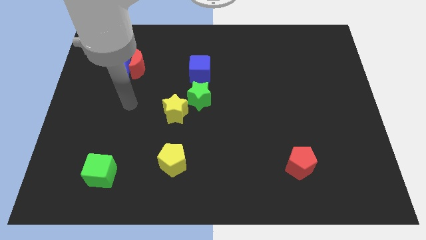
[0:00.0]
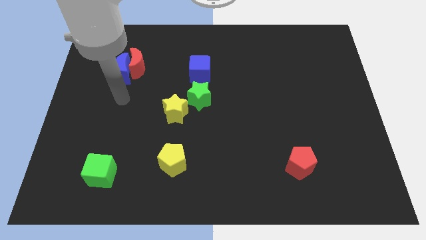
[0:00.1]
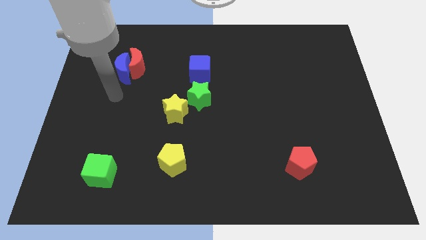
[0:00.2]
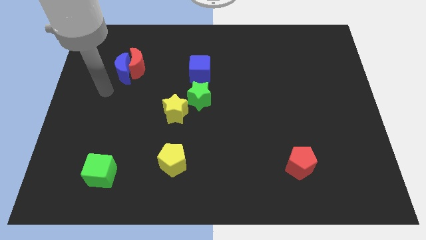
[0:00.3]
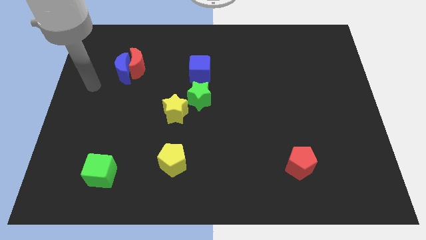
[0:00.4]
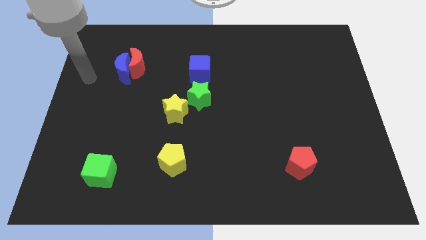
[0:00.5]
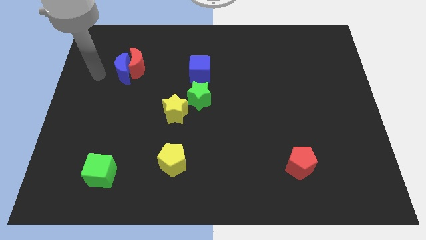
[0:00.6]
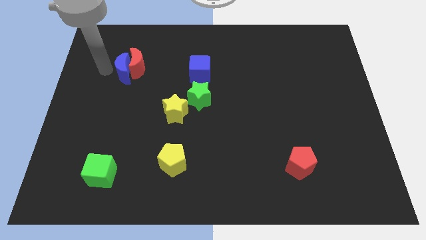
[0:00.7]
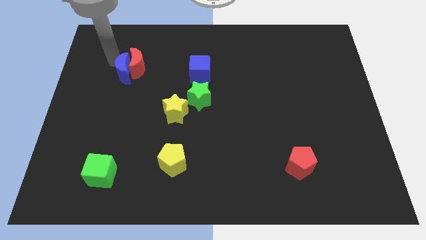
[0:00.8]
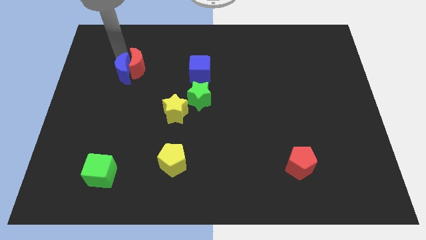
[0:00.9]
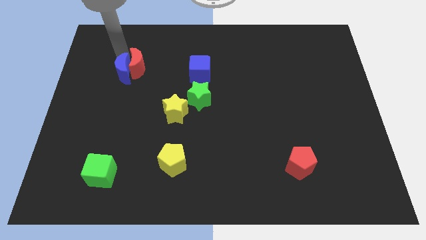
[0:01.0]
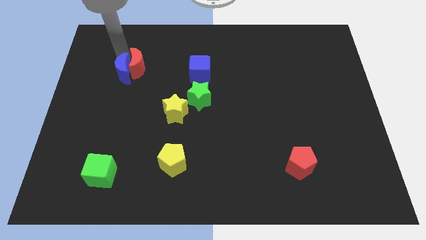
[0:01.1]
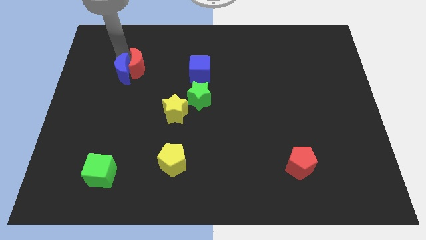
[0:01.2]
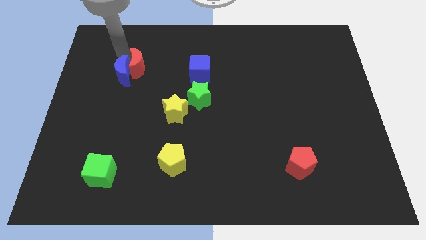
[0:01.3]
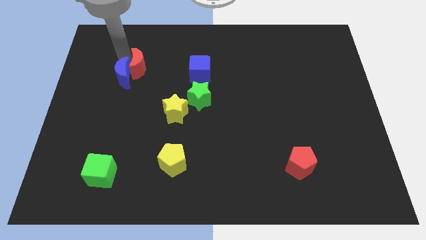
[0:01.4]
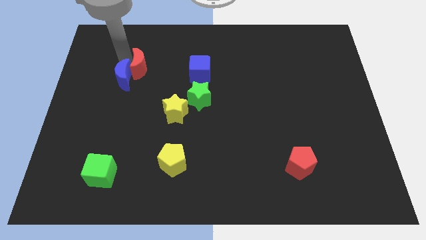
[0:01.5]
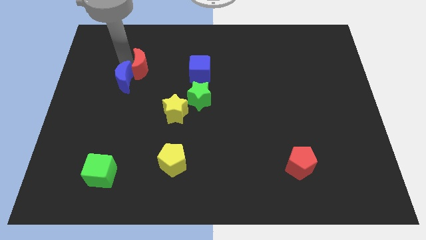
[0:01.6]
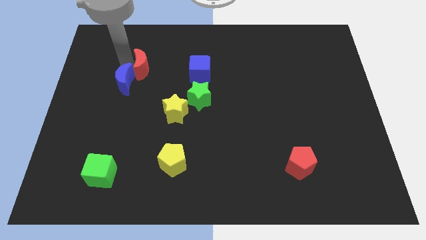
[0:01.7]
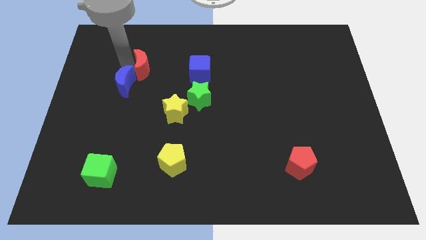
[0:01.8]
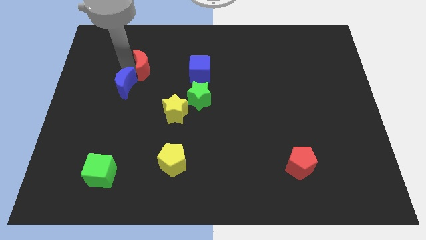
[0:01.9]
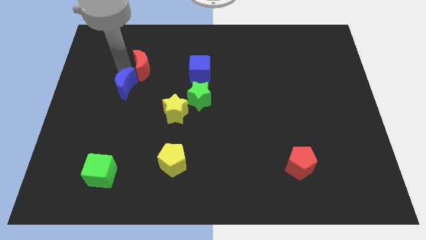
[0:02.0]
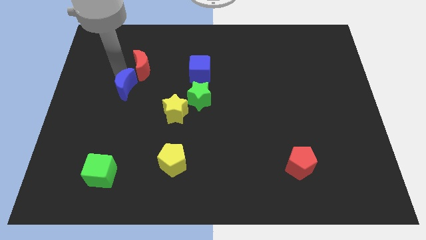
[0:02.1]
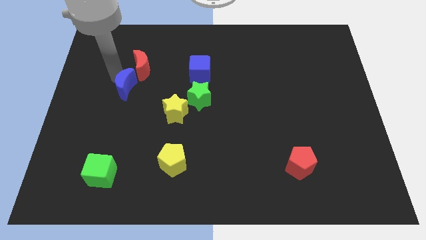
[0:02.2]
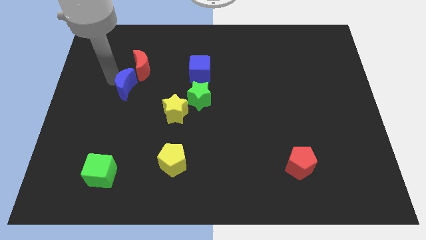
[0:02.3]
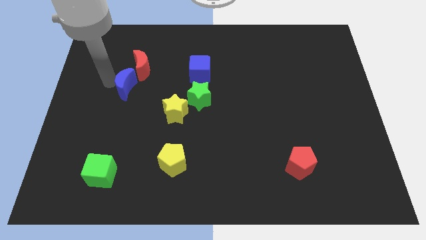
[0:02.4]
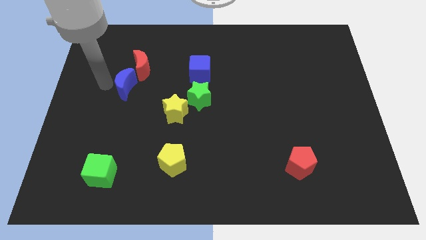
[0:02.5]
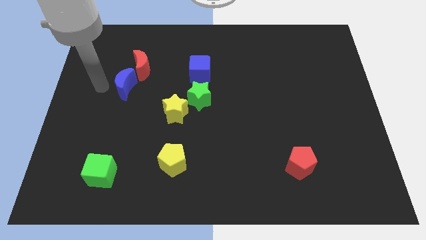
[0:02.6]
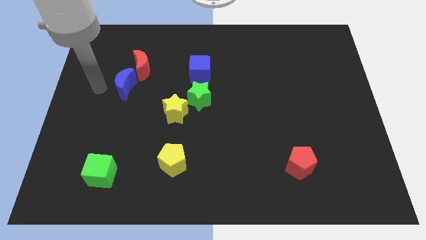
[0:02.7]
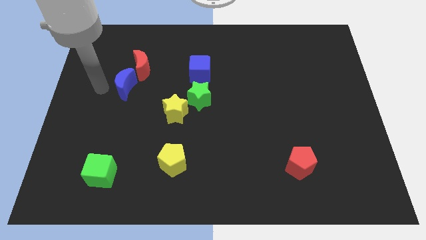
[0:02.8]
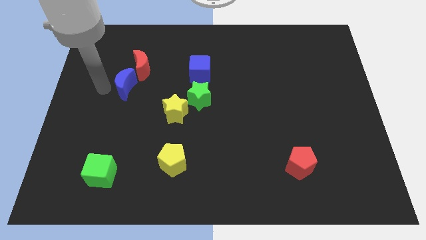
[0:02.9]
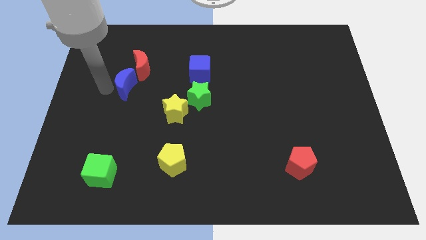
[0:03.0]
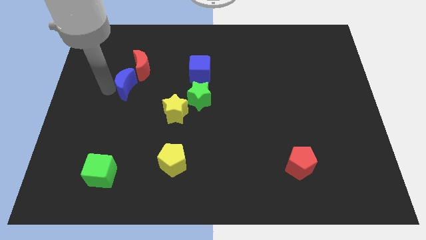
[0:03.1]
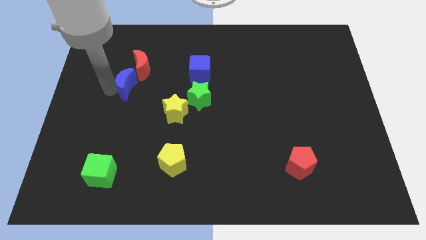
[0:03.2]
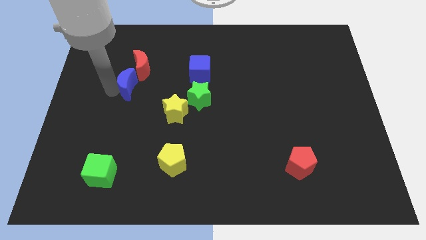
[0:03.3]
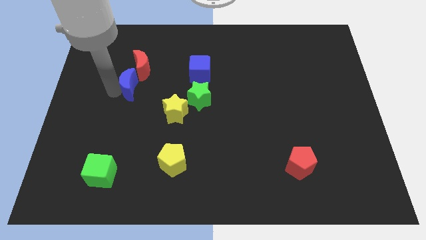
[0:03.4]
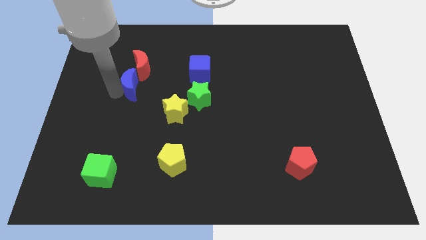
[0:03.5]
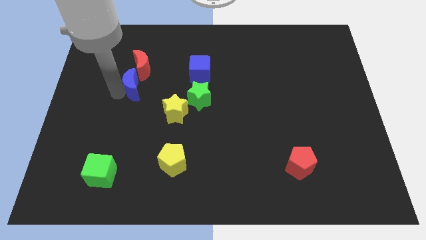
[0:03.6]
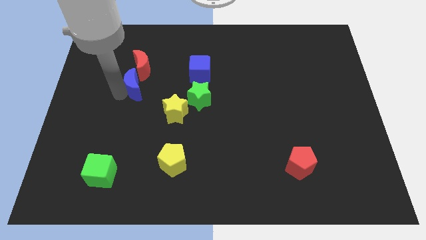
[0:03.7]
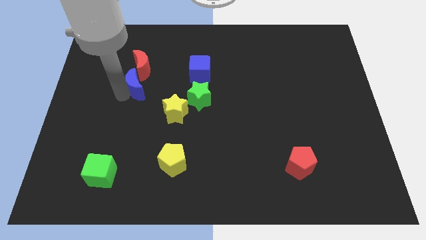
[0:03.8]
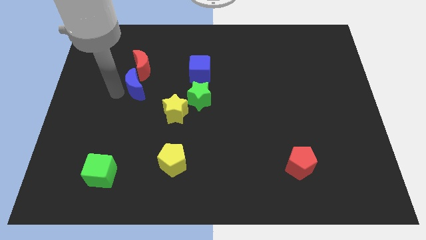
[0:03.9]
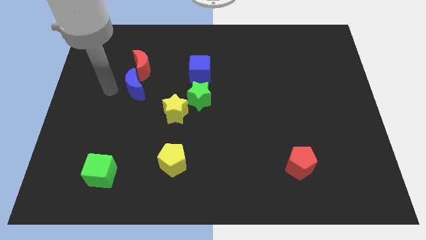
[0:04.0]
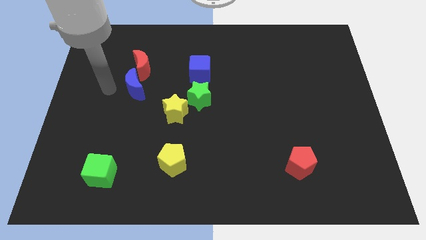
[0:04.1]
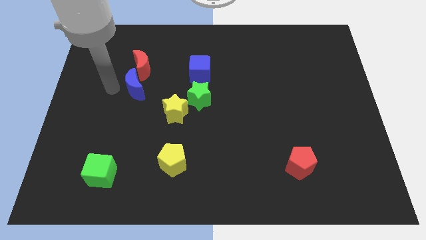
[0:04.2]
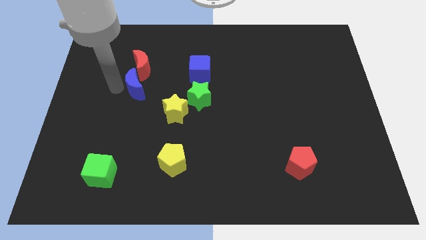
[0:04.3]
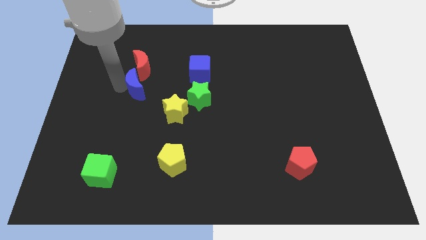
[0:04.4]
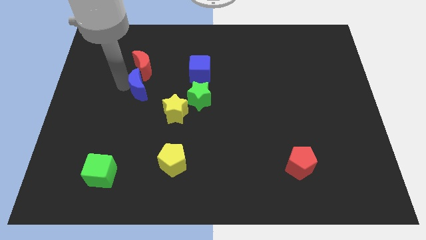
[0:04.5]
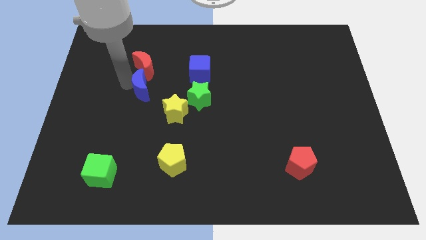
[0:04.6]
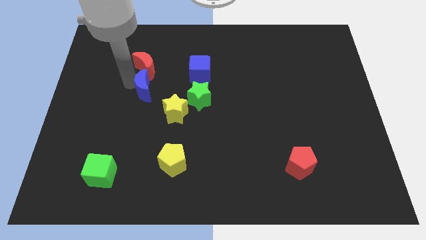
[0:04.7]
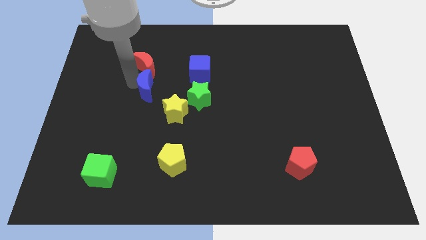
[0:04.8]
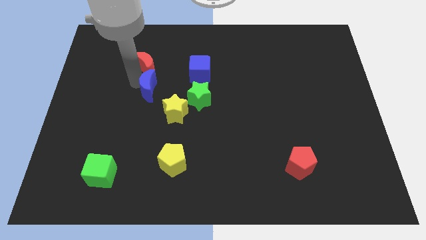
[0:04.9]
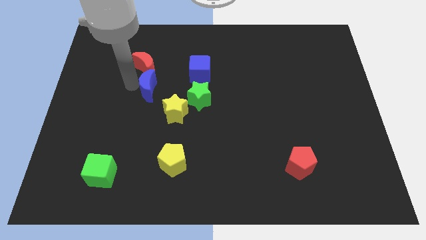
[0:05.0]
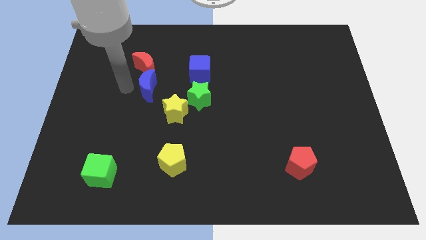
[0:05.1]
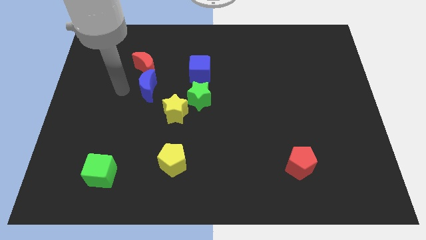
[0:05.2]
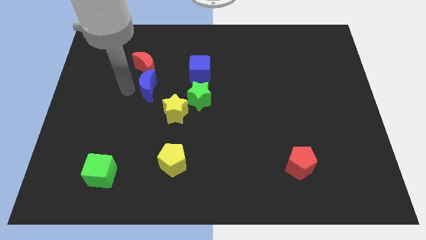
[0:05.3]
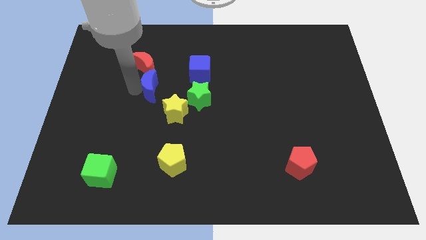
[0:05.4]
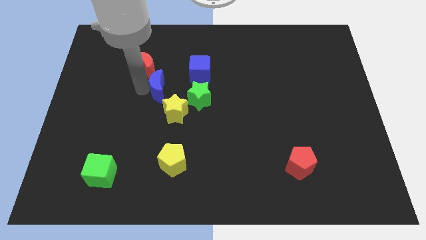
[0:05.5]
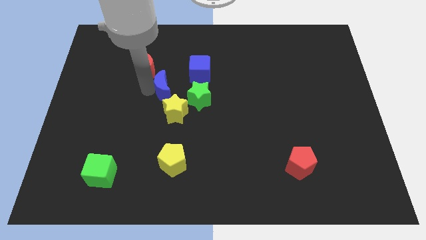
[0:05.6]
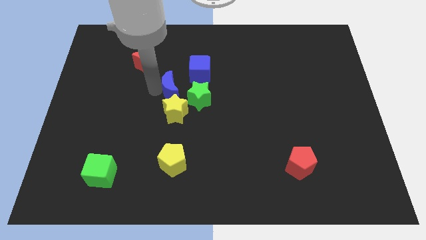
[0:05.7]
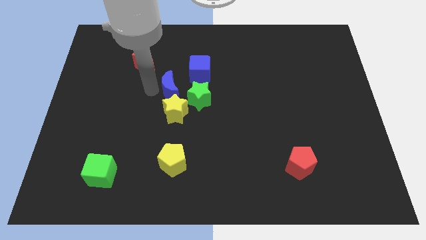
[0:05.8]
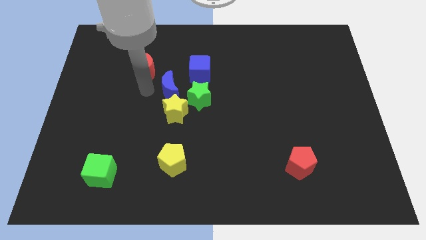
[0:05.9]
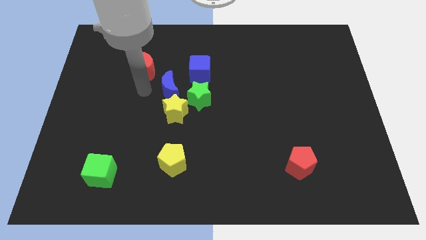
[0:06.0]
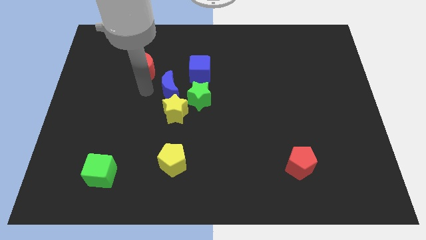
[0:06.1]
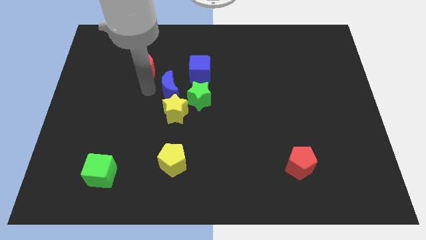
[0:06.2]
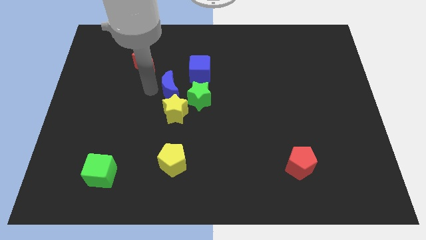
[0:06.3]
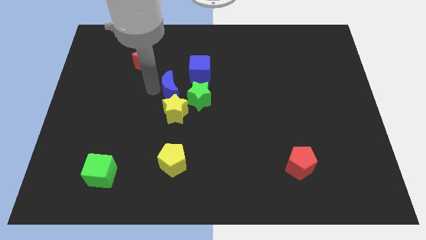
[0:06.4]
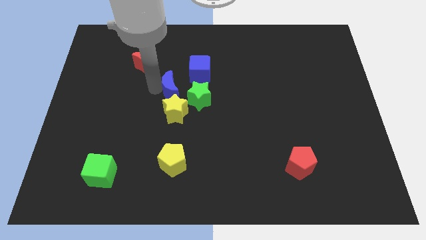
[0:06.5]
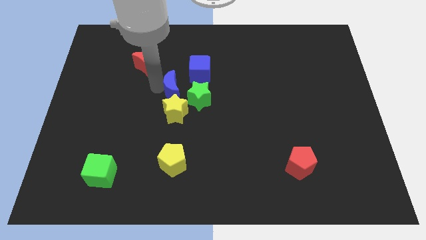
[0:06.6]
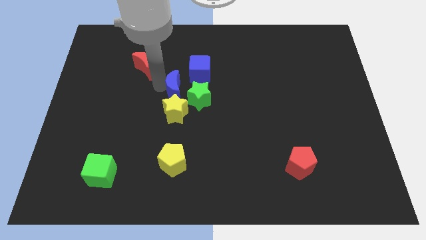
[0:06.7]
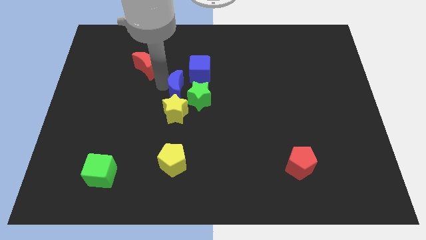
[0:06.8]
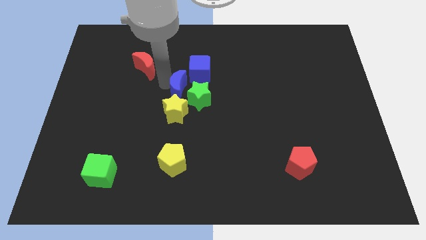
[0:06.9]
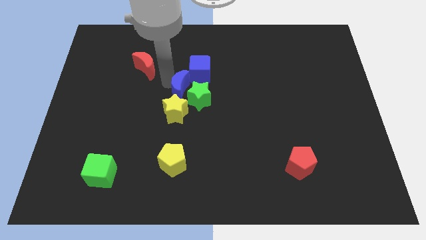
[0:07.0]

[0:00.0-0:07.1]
put the blue moon next to the green star

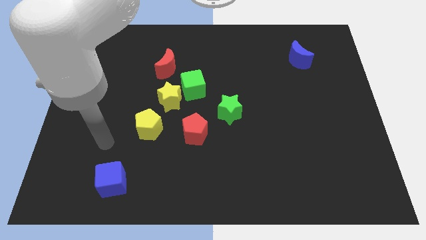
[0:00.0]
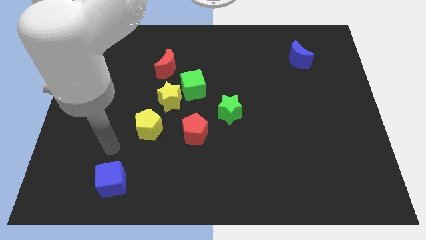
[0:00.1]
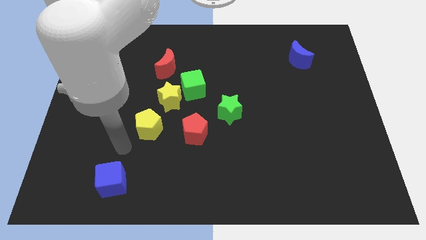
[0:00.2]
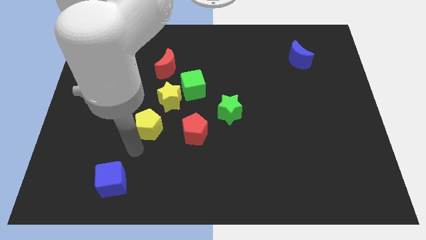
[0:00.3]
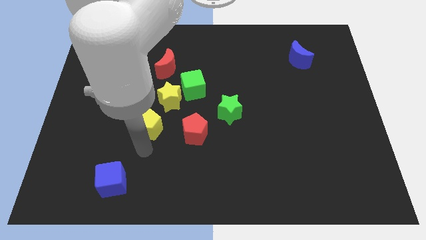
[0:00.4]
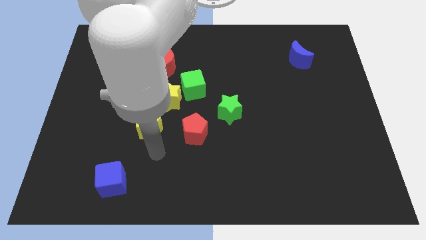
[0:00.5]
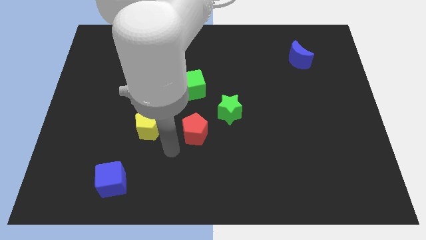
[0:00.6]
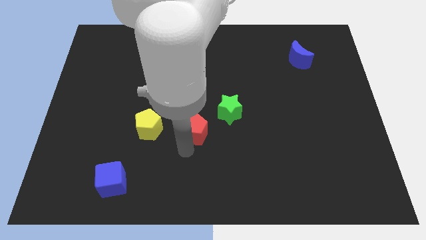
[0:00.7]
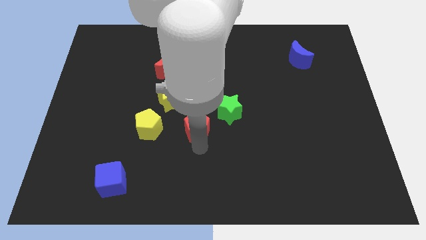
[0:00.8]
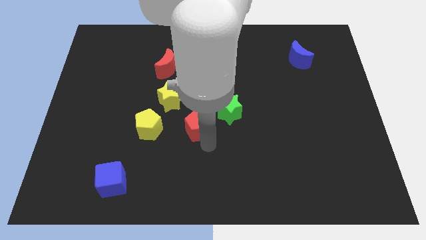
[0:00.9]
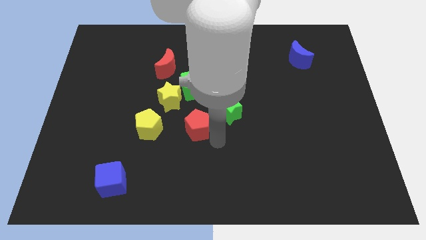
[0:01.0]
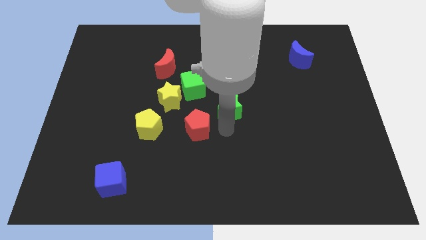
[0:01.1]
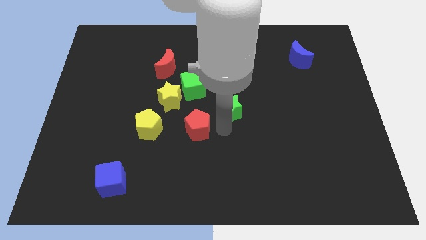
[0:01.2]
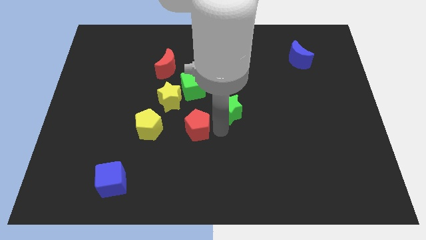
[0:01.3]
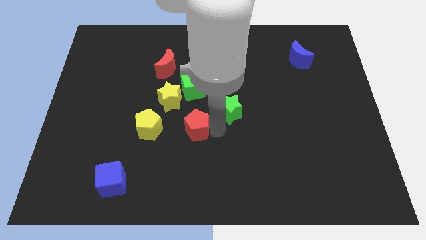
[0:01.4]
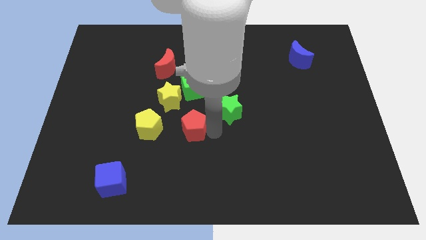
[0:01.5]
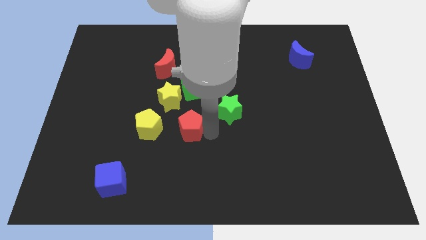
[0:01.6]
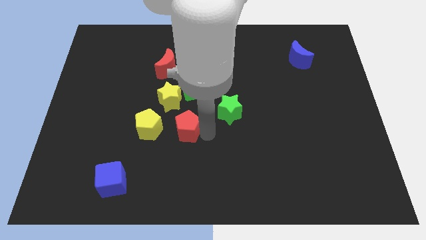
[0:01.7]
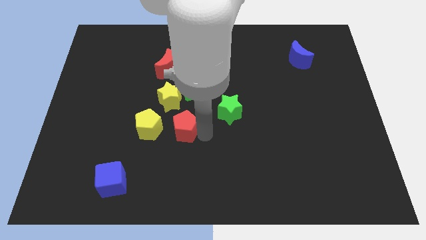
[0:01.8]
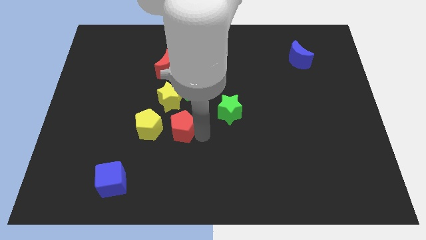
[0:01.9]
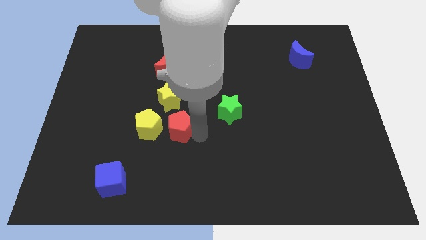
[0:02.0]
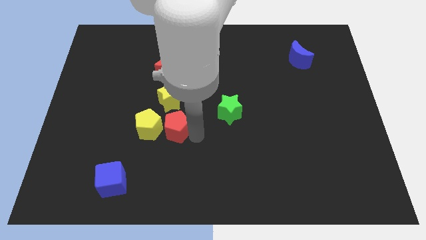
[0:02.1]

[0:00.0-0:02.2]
put the red pentagon towards the yellow pentagon
